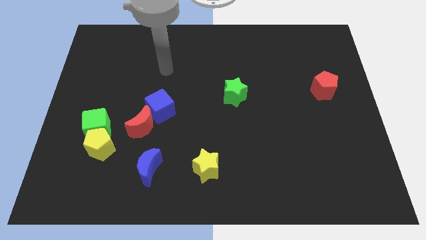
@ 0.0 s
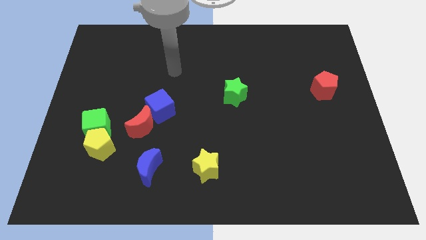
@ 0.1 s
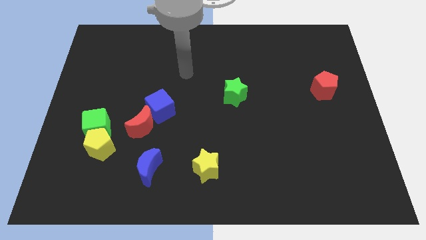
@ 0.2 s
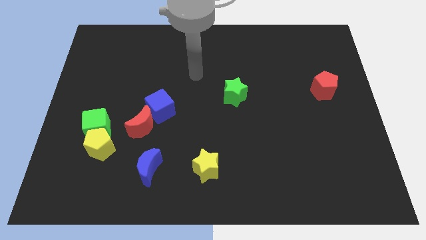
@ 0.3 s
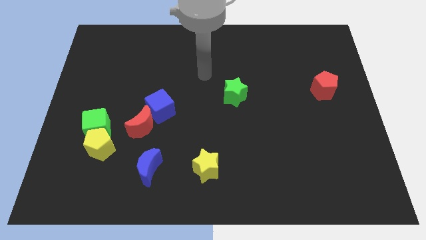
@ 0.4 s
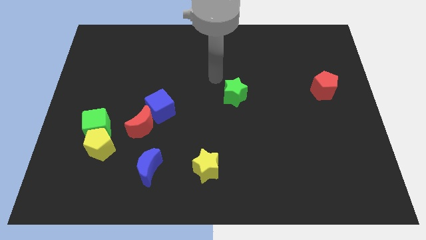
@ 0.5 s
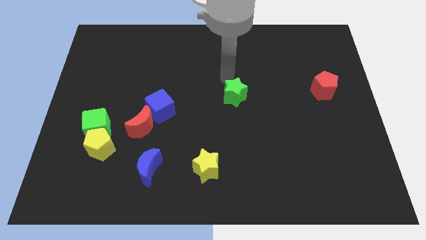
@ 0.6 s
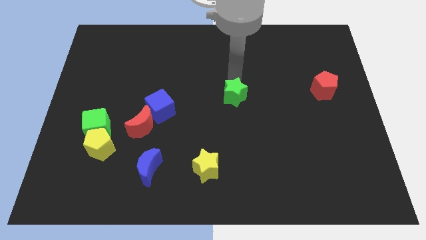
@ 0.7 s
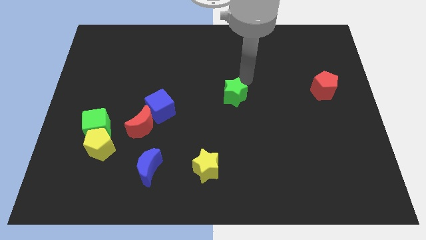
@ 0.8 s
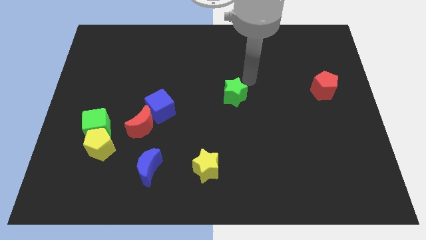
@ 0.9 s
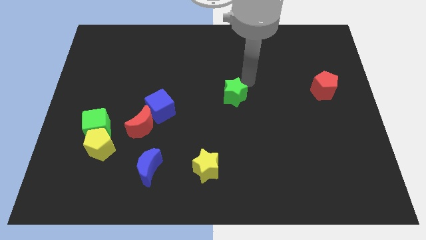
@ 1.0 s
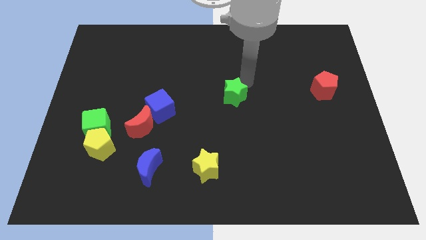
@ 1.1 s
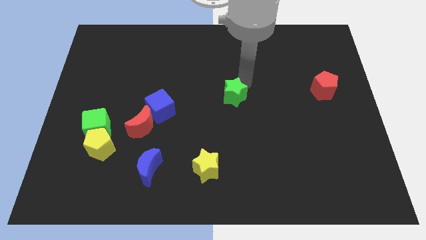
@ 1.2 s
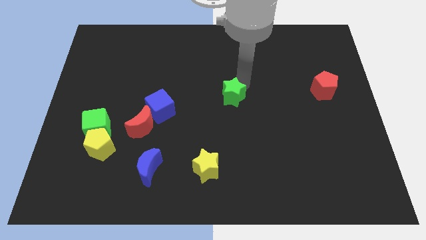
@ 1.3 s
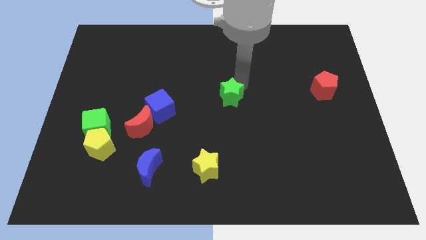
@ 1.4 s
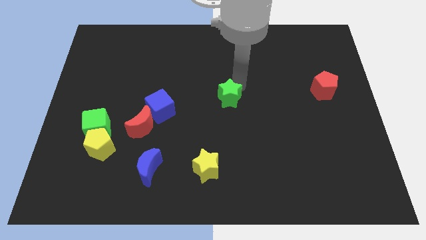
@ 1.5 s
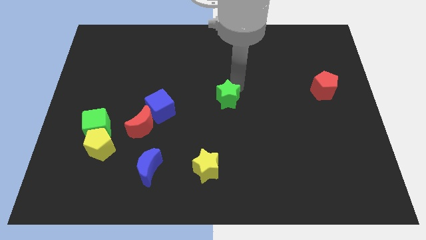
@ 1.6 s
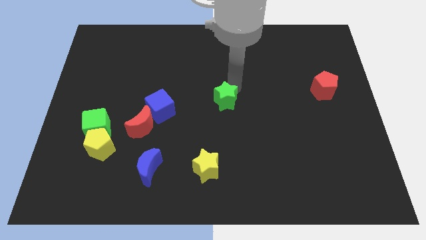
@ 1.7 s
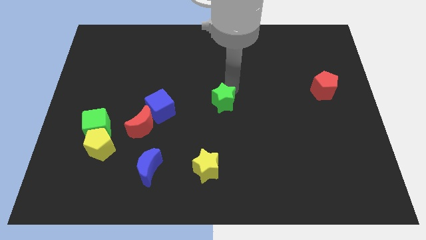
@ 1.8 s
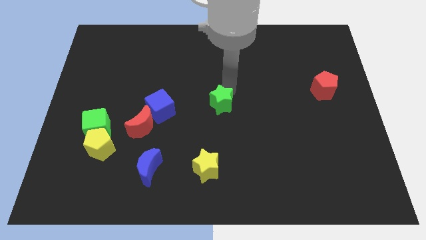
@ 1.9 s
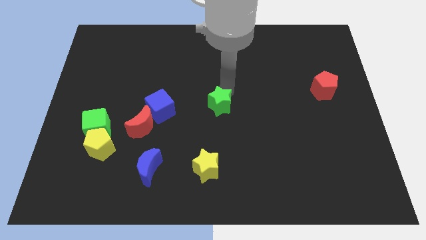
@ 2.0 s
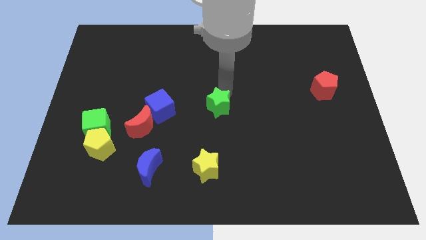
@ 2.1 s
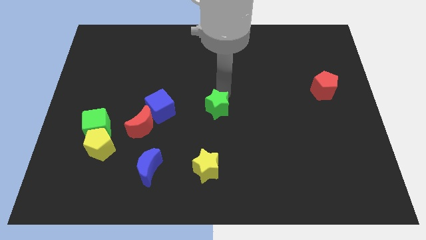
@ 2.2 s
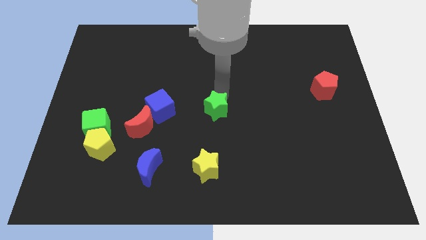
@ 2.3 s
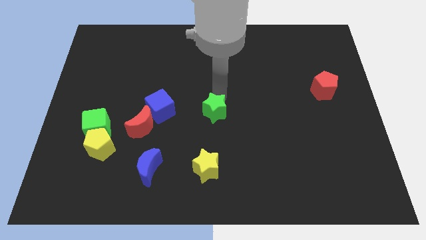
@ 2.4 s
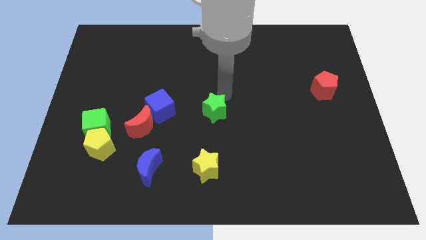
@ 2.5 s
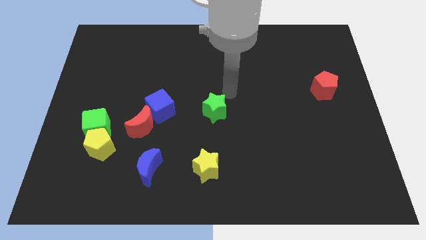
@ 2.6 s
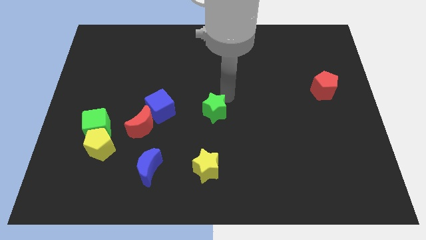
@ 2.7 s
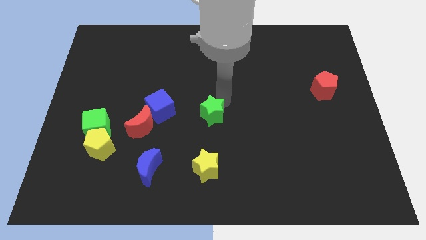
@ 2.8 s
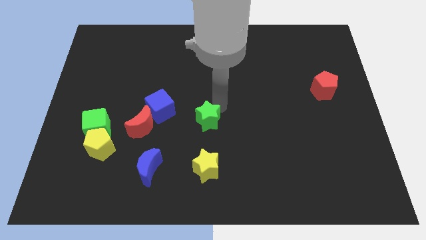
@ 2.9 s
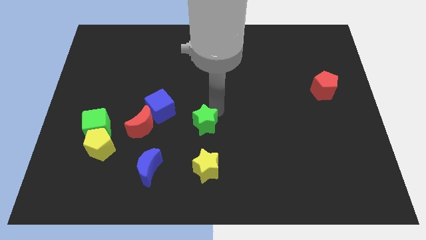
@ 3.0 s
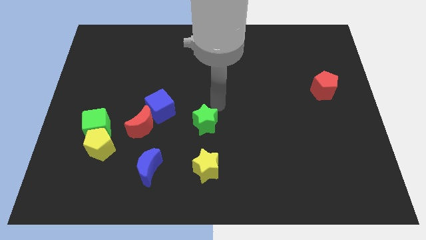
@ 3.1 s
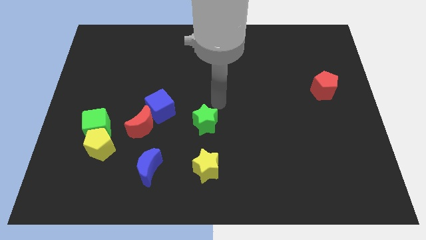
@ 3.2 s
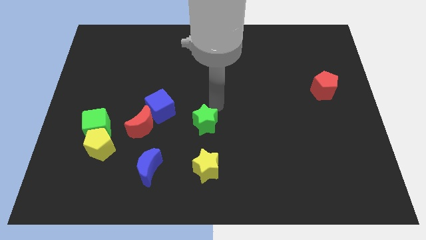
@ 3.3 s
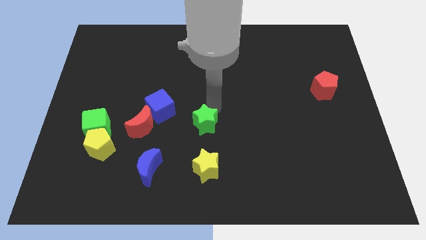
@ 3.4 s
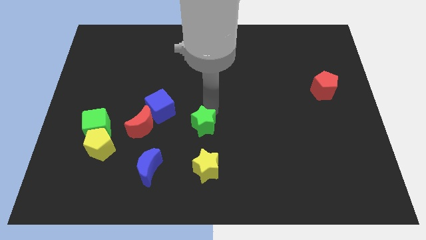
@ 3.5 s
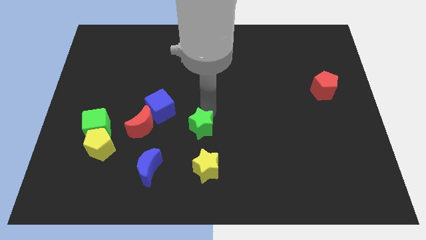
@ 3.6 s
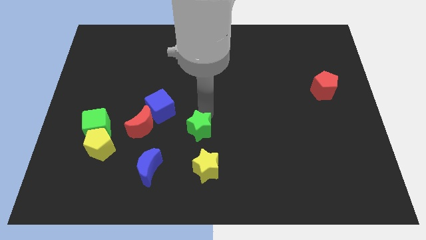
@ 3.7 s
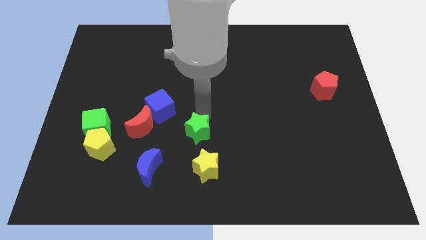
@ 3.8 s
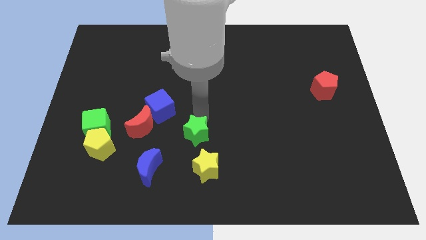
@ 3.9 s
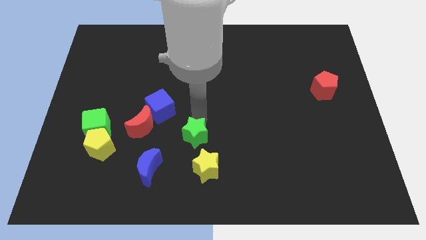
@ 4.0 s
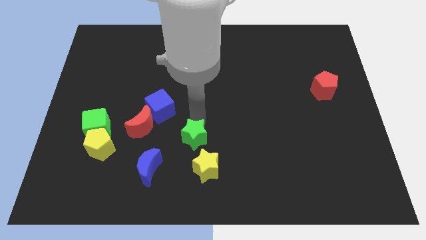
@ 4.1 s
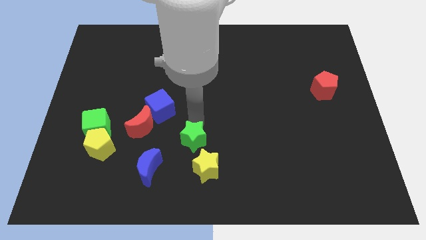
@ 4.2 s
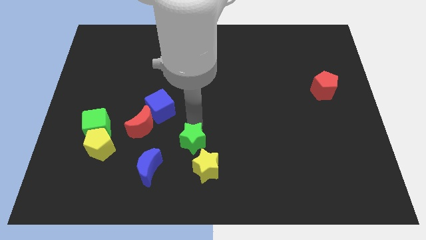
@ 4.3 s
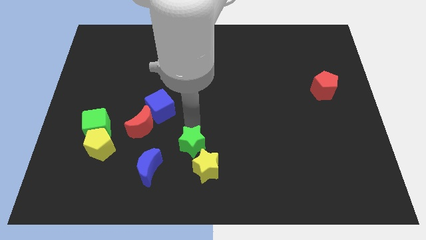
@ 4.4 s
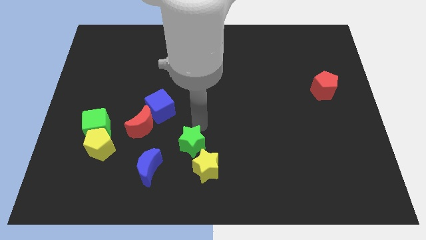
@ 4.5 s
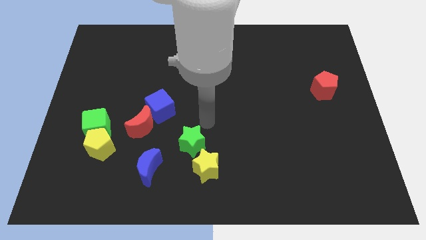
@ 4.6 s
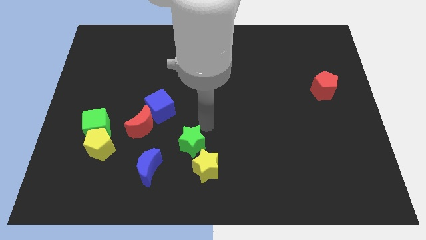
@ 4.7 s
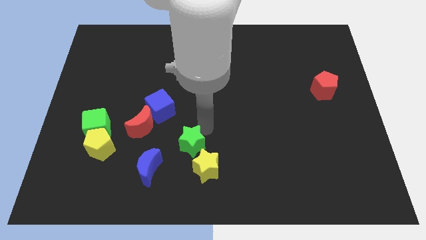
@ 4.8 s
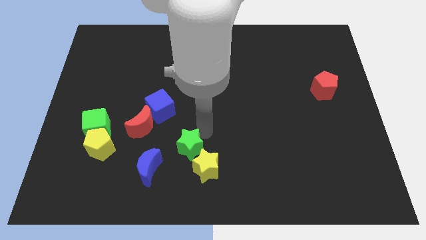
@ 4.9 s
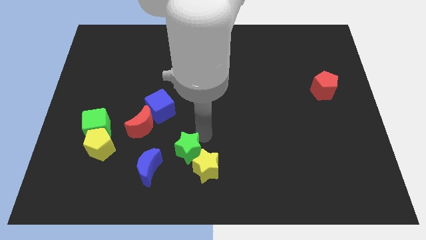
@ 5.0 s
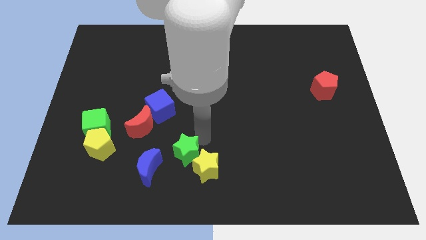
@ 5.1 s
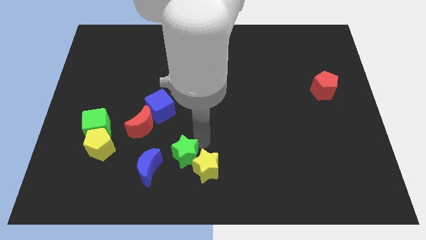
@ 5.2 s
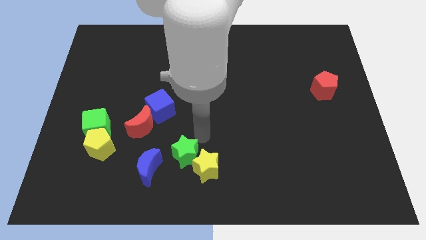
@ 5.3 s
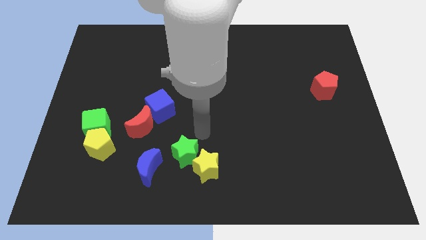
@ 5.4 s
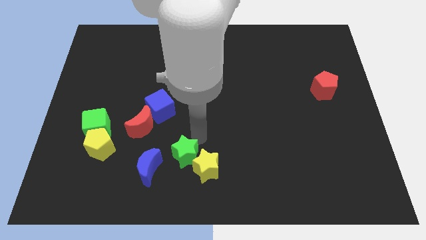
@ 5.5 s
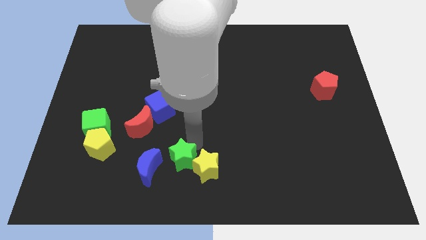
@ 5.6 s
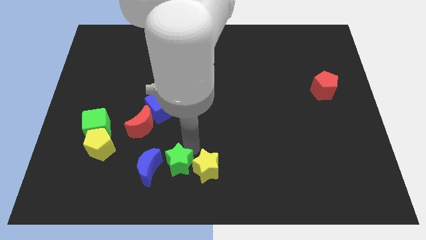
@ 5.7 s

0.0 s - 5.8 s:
slide the green star down and to the left

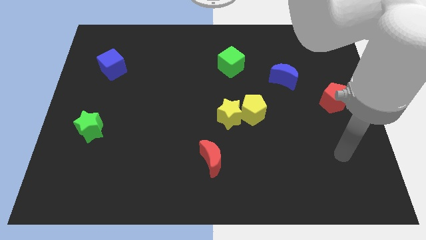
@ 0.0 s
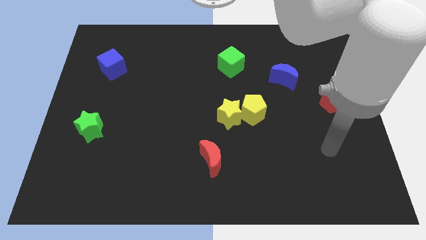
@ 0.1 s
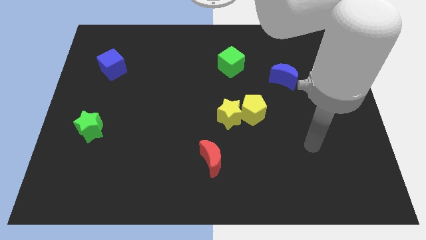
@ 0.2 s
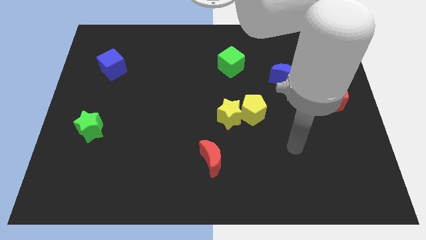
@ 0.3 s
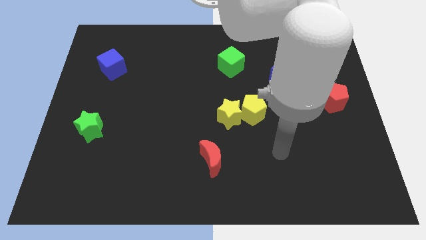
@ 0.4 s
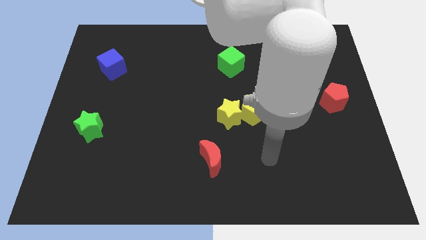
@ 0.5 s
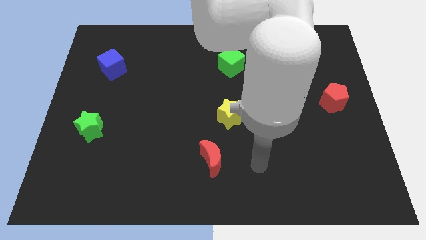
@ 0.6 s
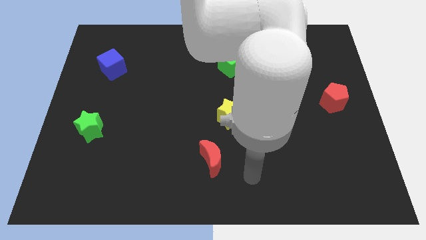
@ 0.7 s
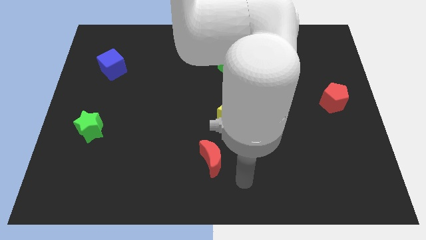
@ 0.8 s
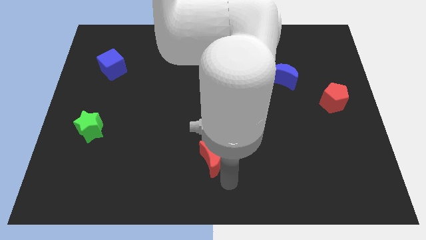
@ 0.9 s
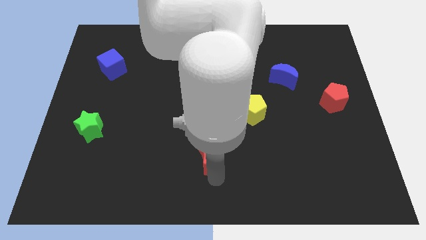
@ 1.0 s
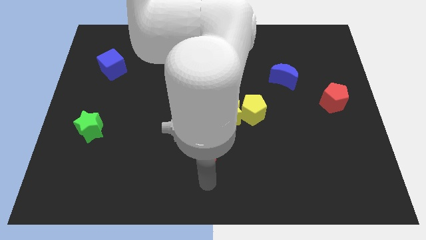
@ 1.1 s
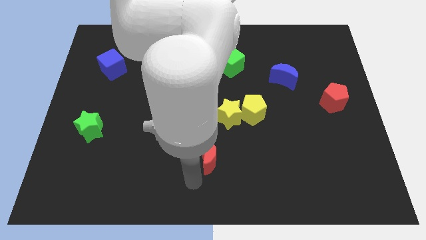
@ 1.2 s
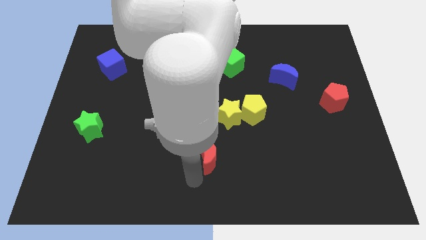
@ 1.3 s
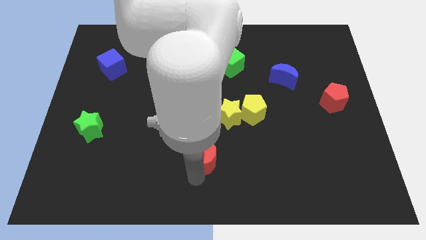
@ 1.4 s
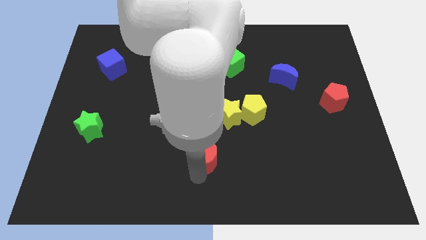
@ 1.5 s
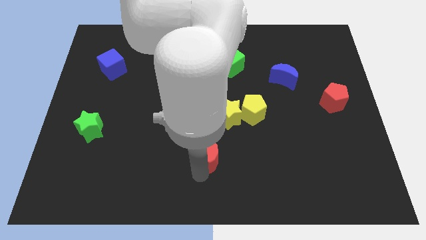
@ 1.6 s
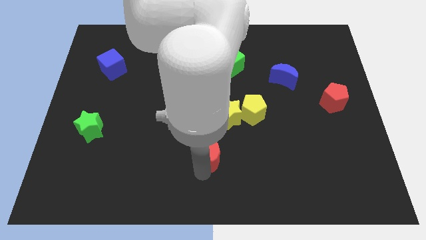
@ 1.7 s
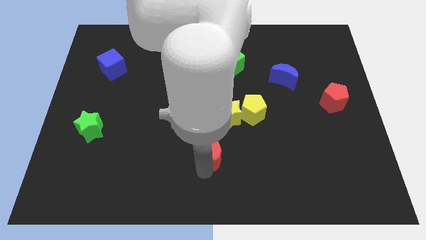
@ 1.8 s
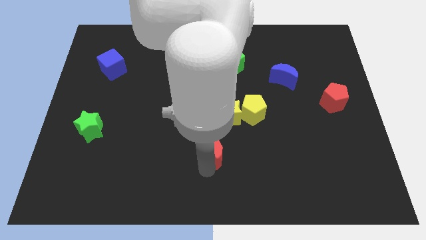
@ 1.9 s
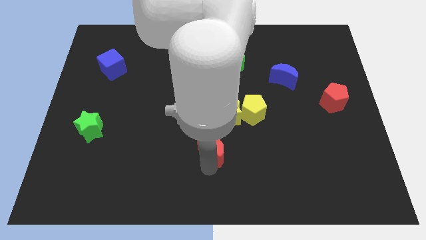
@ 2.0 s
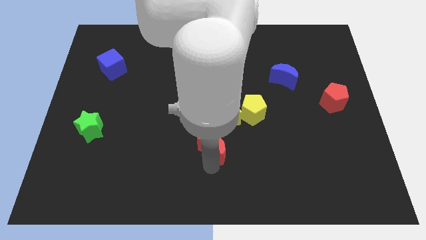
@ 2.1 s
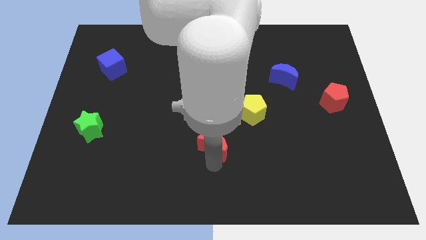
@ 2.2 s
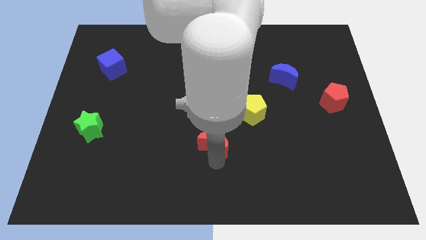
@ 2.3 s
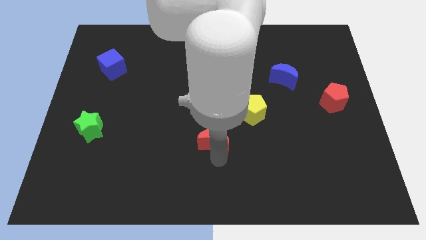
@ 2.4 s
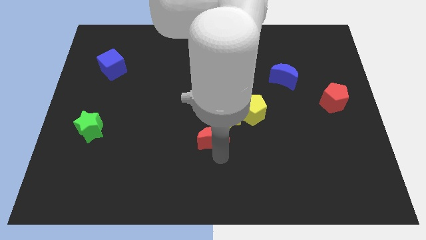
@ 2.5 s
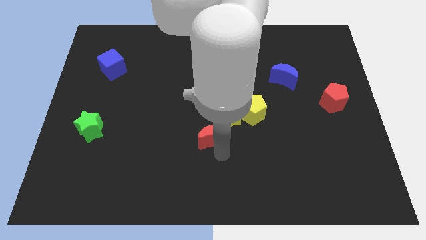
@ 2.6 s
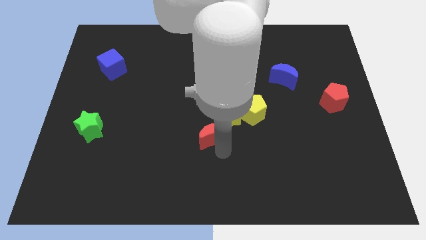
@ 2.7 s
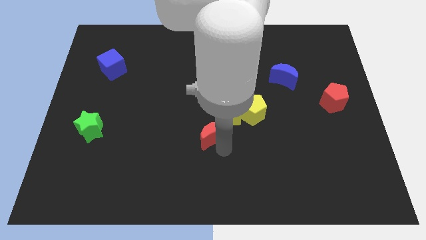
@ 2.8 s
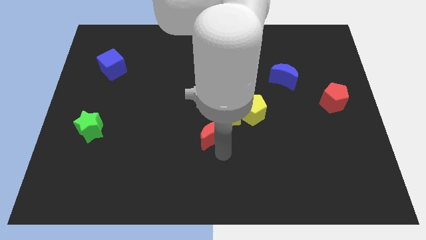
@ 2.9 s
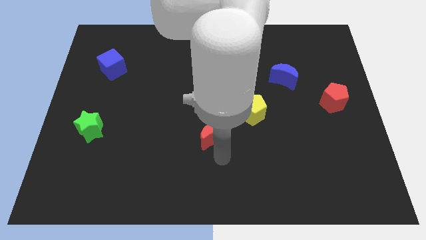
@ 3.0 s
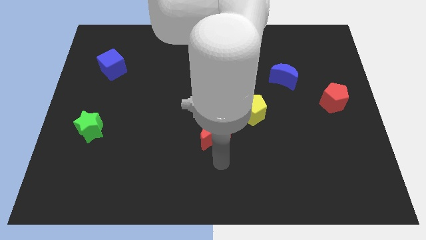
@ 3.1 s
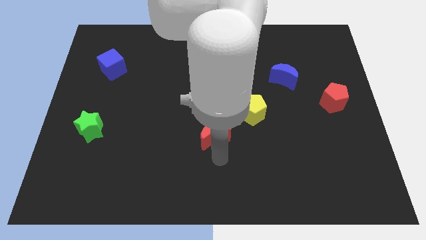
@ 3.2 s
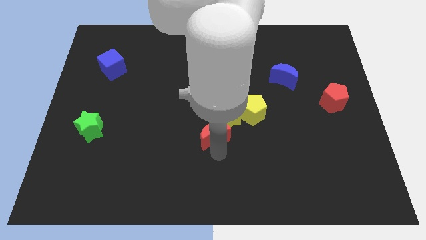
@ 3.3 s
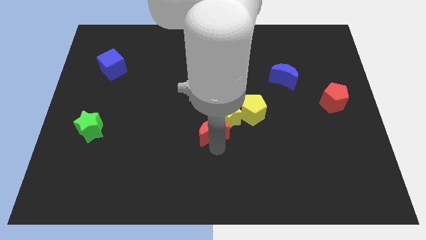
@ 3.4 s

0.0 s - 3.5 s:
slightly push the red moon up
